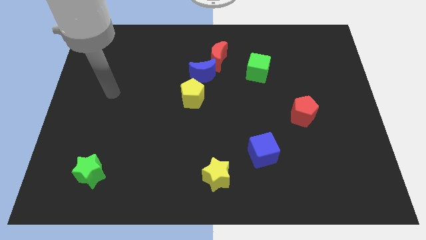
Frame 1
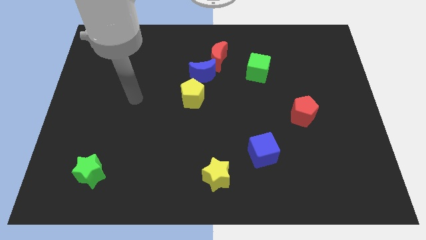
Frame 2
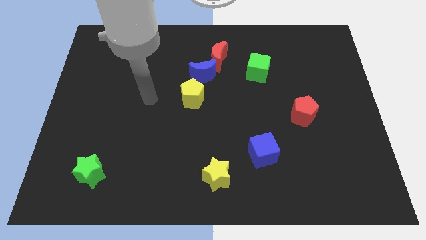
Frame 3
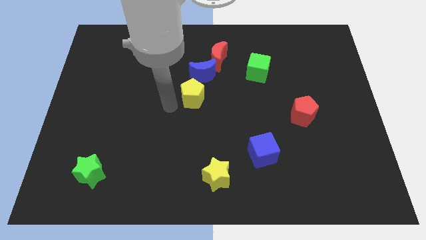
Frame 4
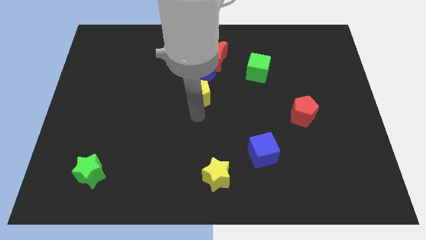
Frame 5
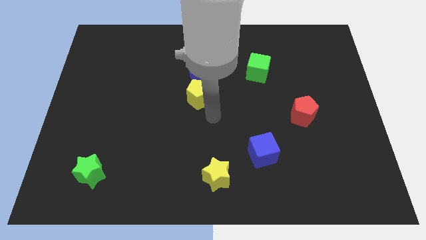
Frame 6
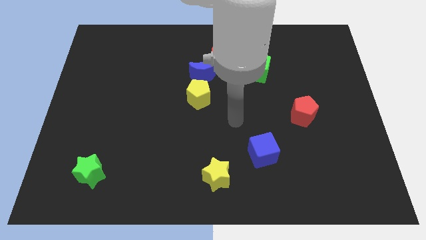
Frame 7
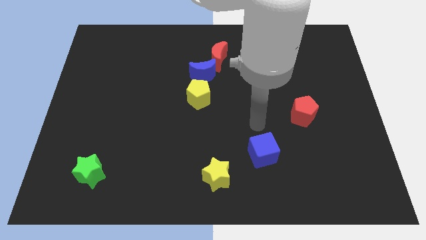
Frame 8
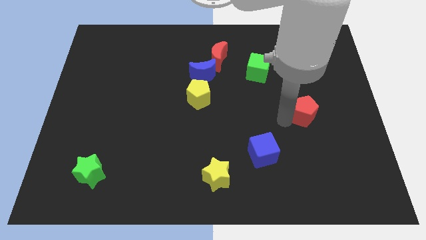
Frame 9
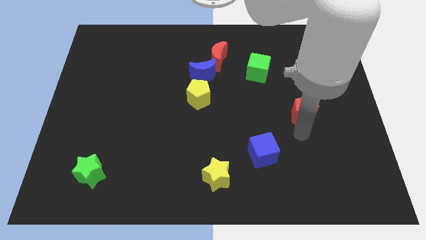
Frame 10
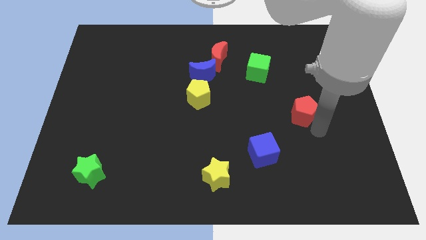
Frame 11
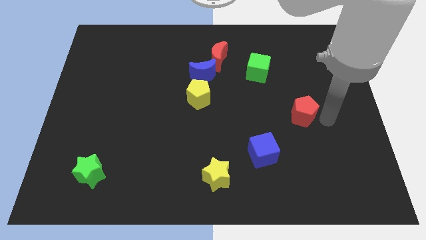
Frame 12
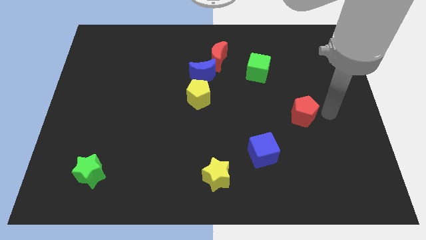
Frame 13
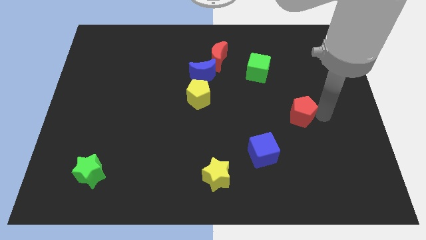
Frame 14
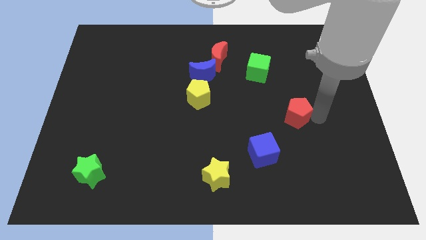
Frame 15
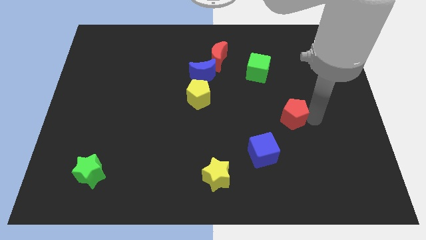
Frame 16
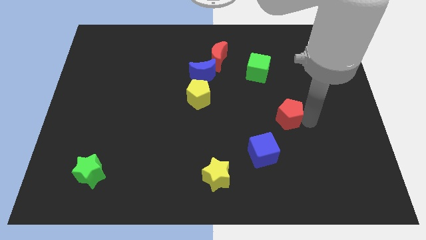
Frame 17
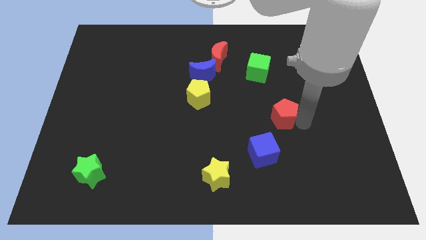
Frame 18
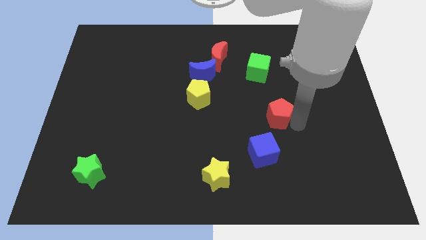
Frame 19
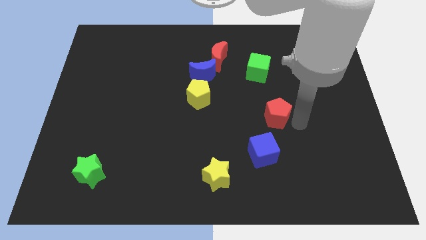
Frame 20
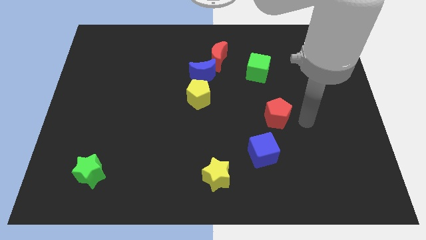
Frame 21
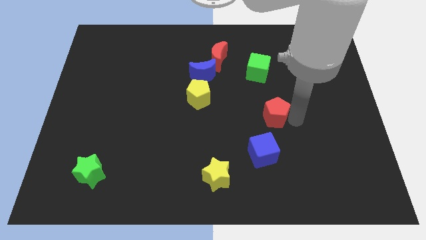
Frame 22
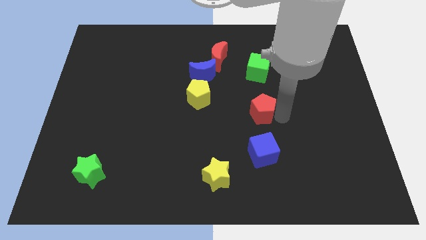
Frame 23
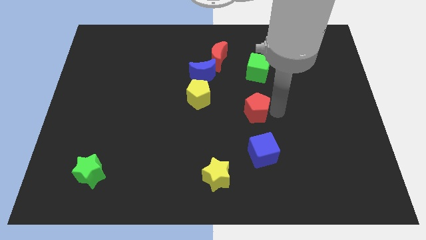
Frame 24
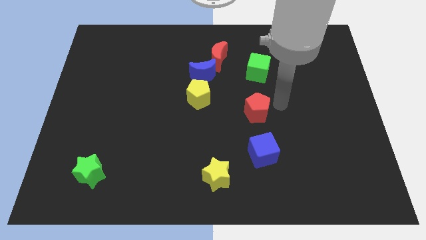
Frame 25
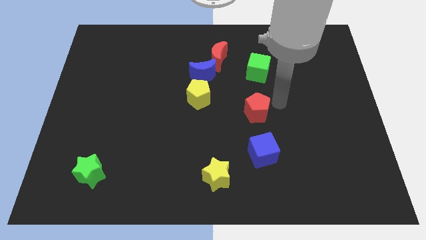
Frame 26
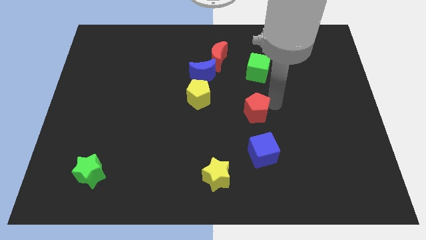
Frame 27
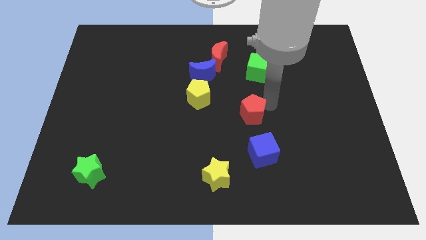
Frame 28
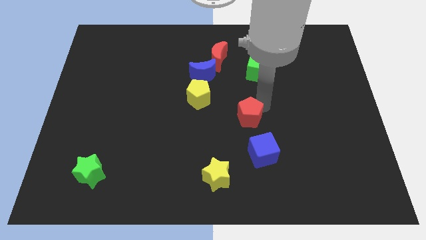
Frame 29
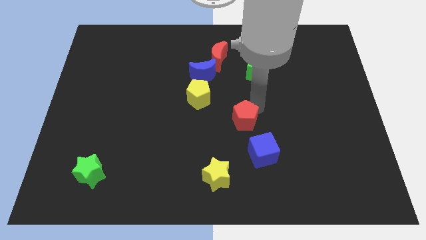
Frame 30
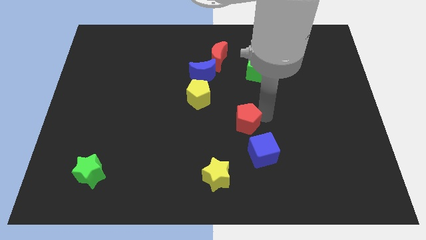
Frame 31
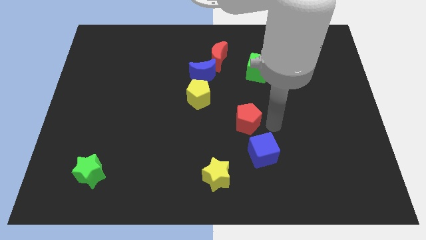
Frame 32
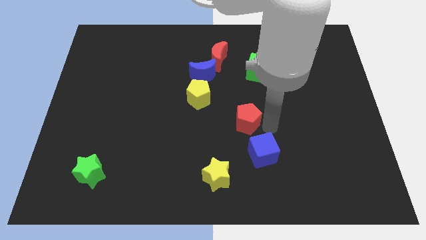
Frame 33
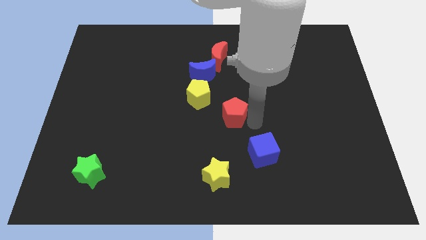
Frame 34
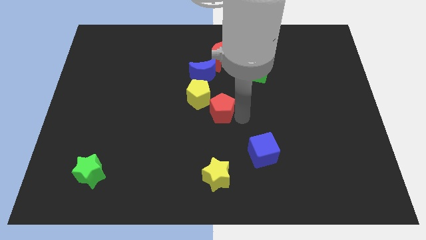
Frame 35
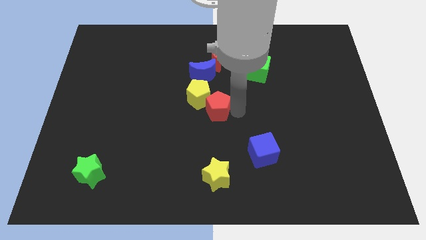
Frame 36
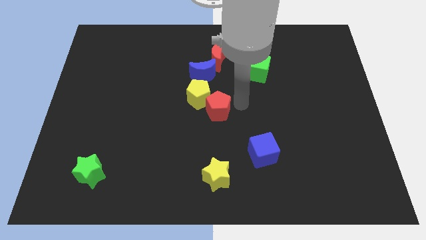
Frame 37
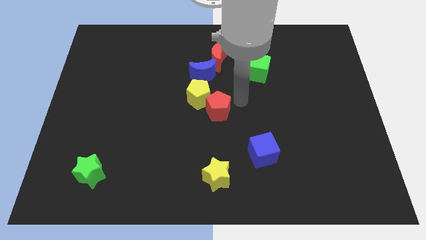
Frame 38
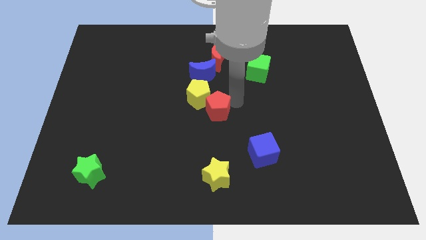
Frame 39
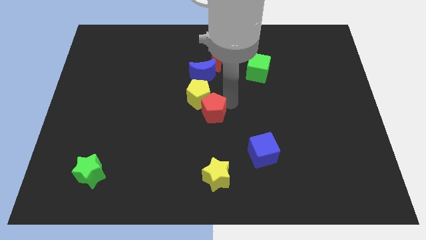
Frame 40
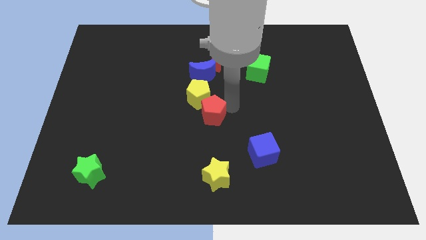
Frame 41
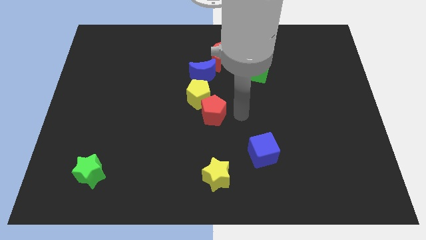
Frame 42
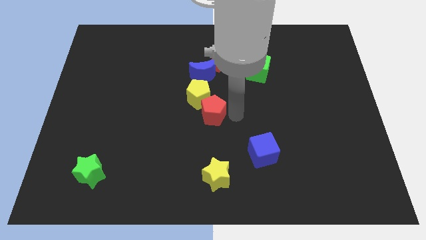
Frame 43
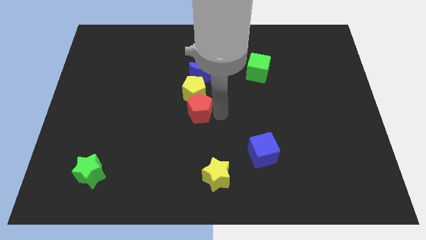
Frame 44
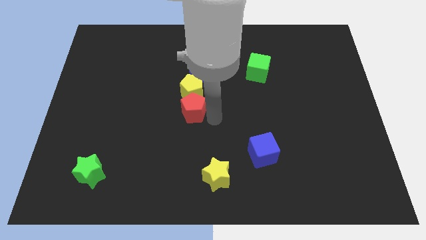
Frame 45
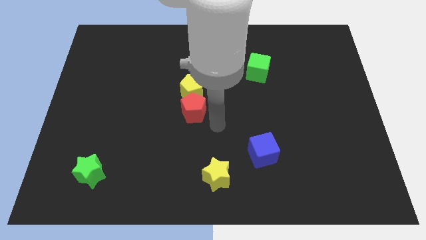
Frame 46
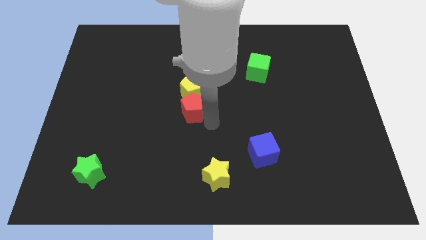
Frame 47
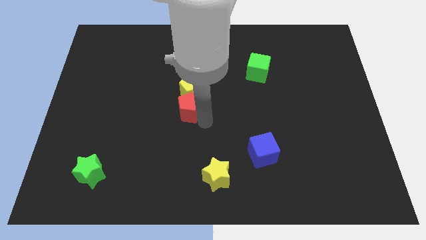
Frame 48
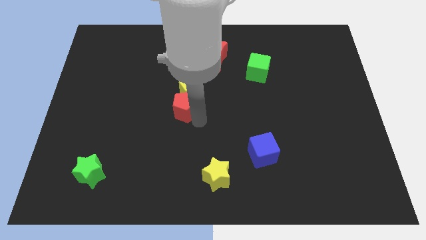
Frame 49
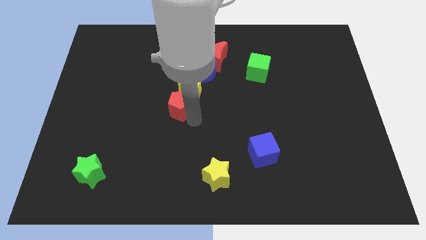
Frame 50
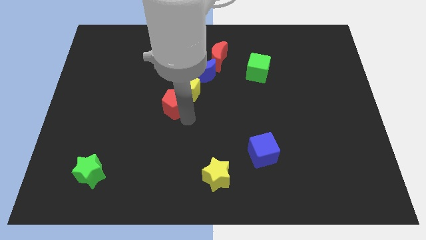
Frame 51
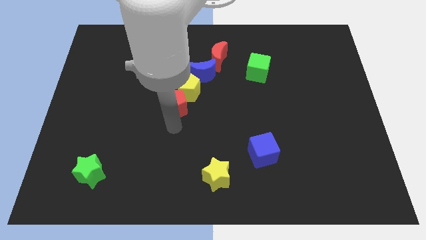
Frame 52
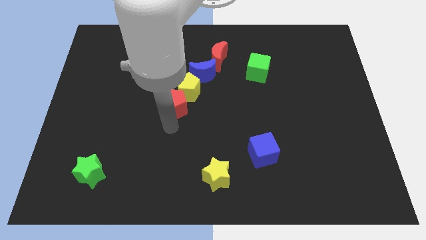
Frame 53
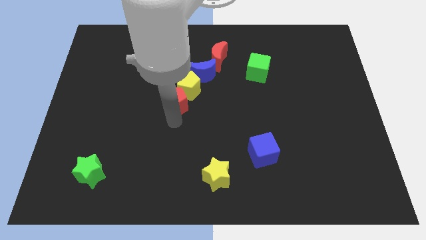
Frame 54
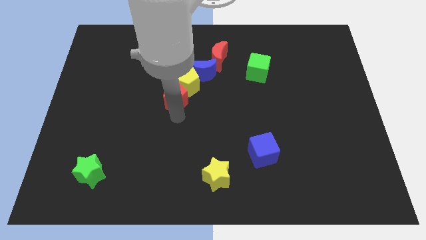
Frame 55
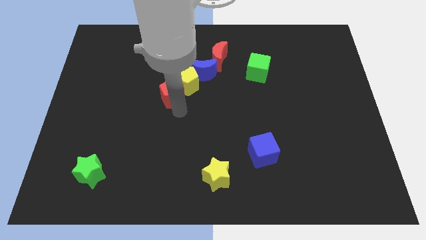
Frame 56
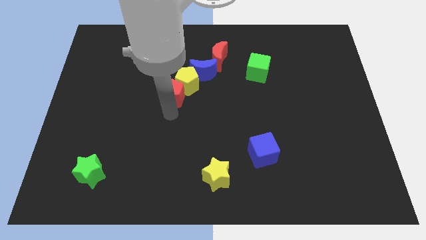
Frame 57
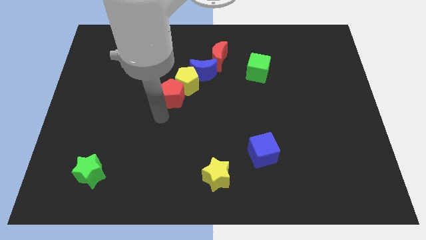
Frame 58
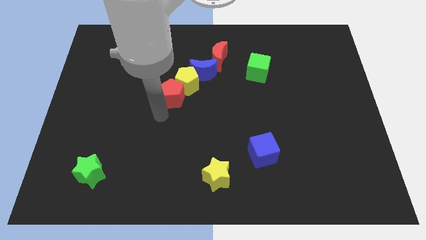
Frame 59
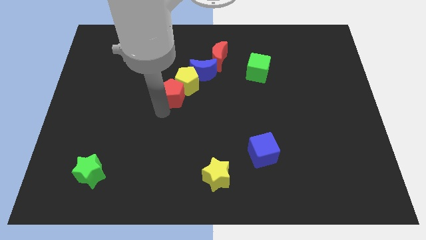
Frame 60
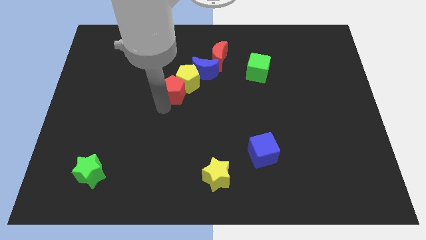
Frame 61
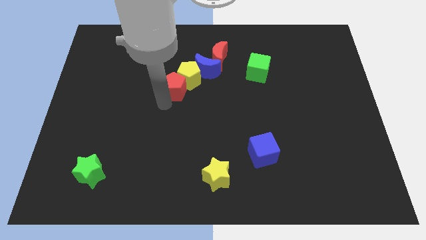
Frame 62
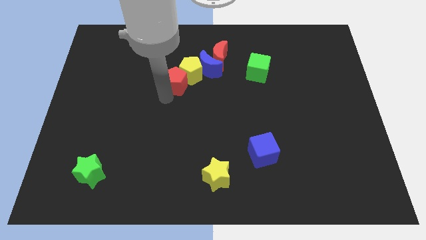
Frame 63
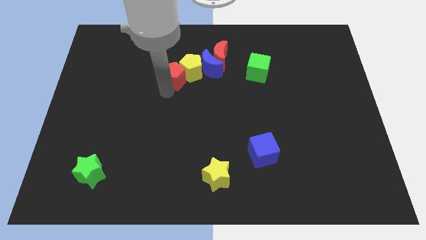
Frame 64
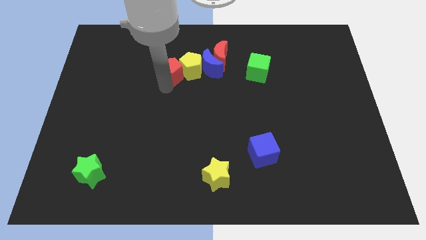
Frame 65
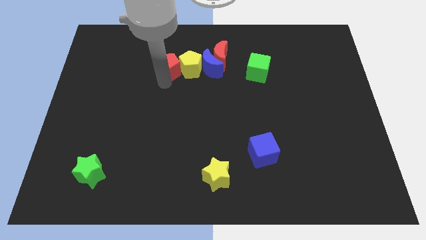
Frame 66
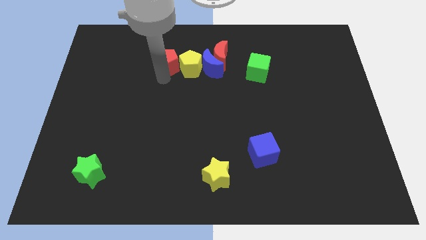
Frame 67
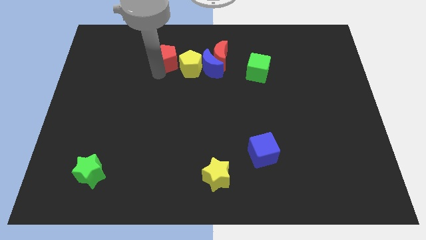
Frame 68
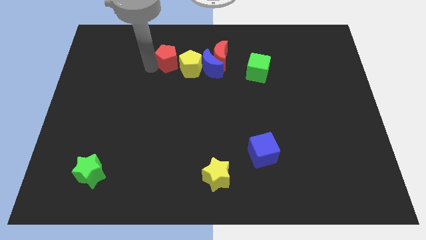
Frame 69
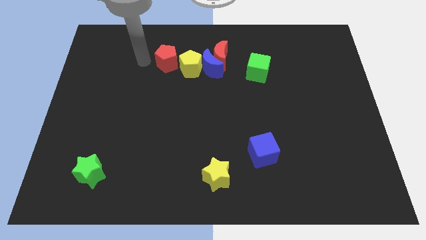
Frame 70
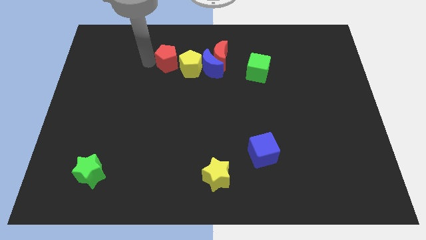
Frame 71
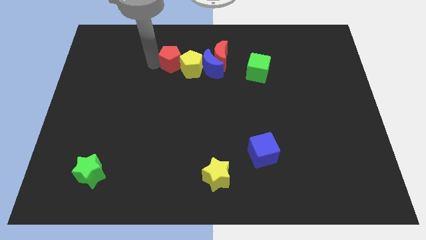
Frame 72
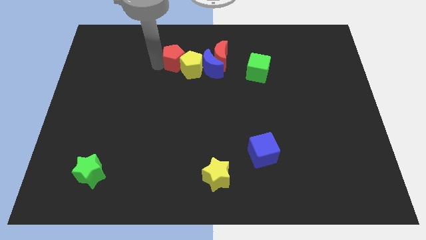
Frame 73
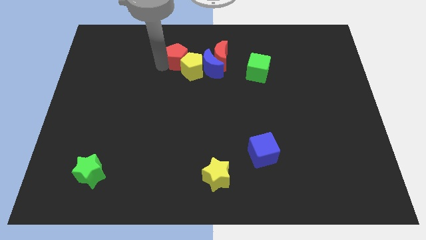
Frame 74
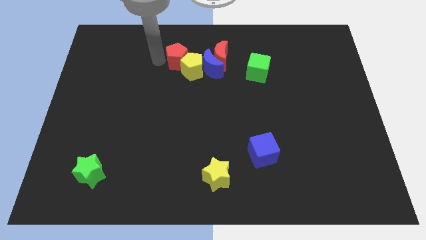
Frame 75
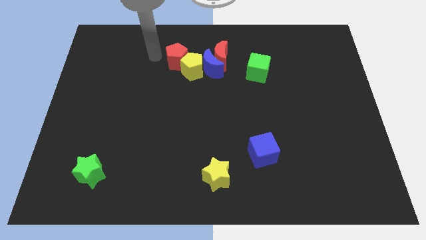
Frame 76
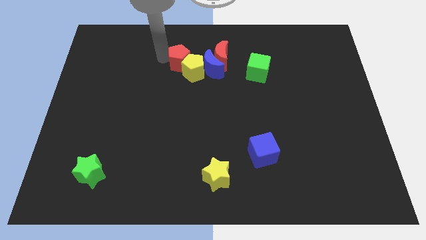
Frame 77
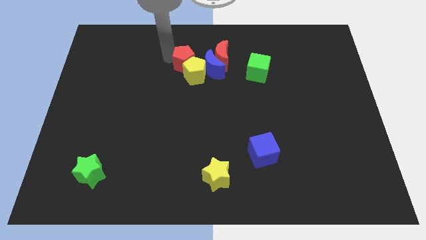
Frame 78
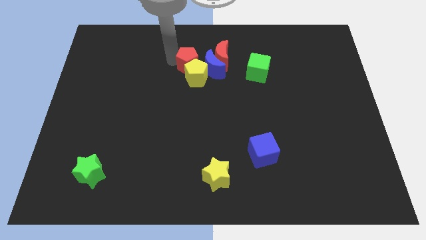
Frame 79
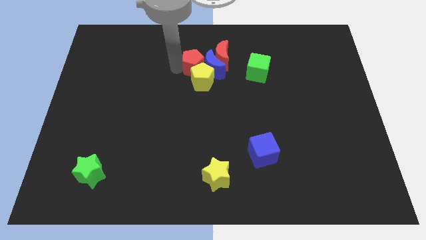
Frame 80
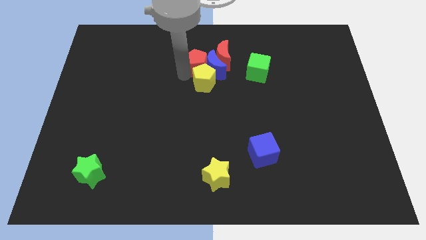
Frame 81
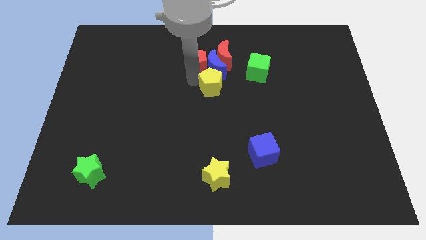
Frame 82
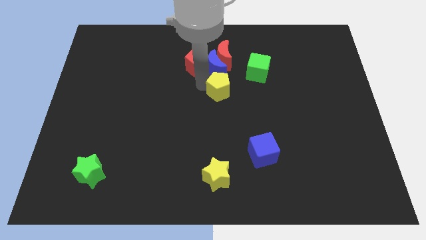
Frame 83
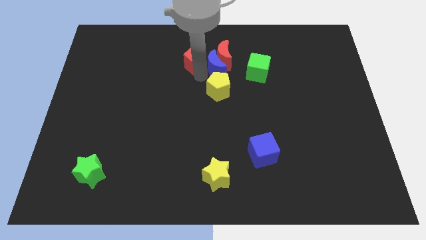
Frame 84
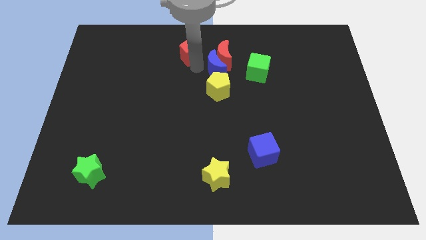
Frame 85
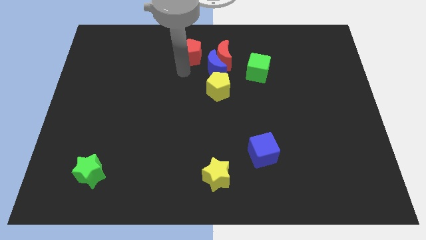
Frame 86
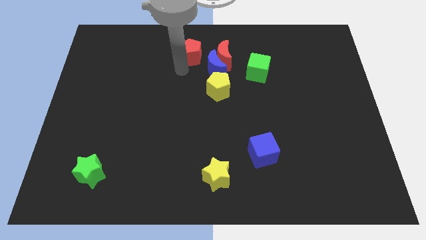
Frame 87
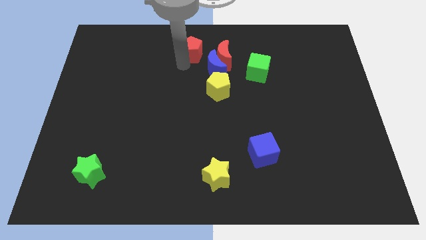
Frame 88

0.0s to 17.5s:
push the red pentagon to the top side
